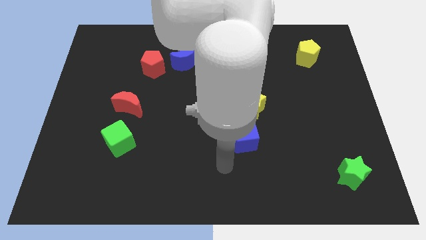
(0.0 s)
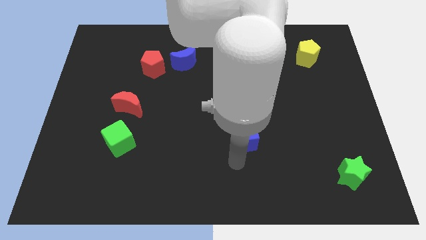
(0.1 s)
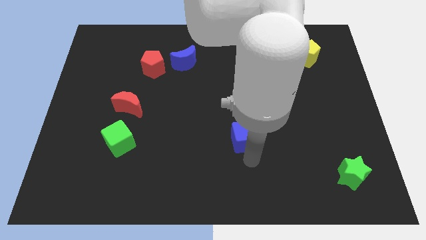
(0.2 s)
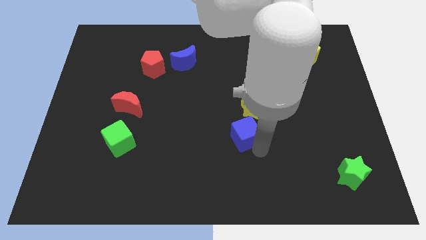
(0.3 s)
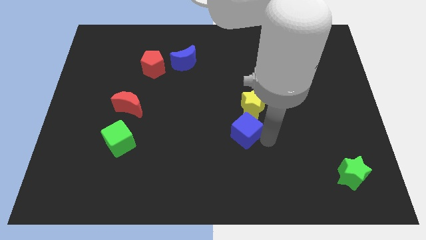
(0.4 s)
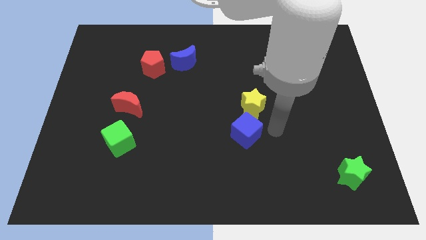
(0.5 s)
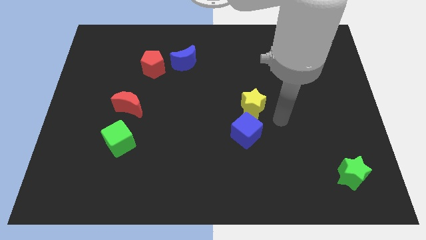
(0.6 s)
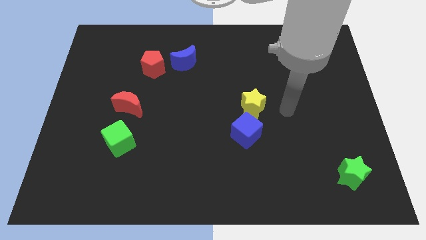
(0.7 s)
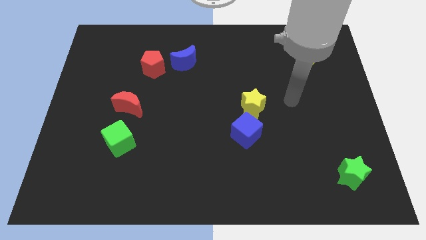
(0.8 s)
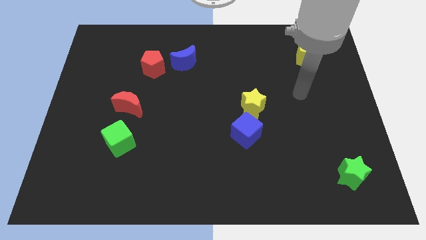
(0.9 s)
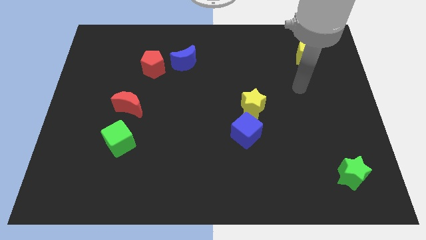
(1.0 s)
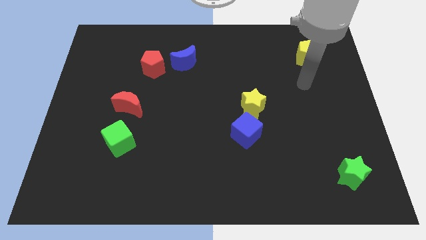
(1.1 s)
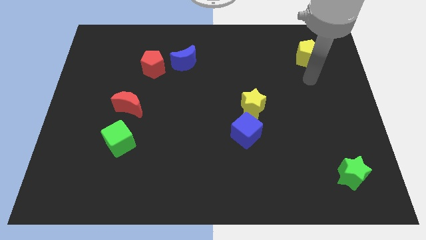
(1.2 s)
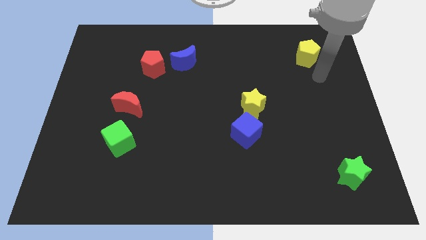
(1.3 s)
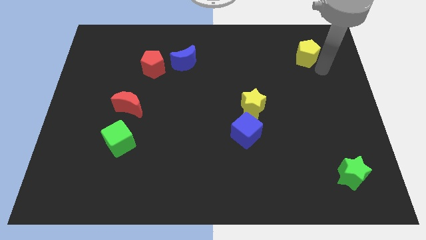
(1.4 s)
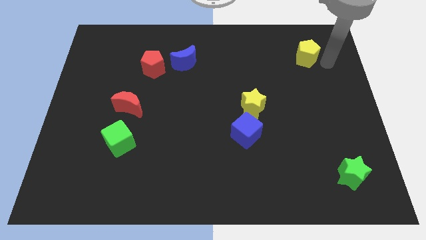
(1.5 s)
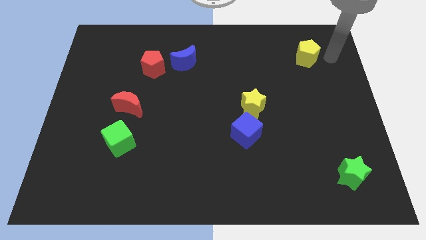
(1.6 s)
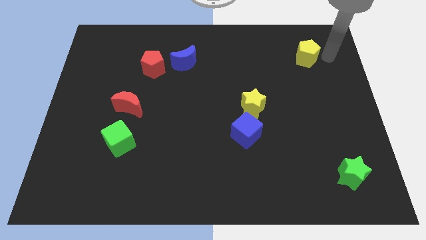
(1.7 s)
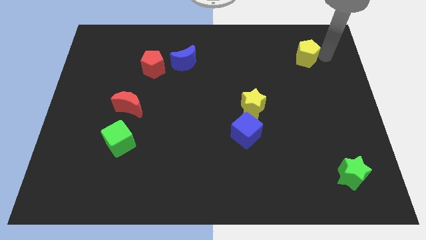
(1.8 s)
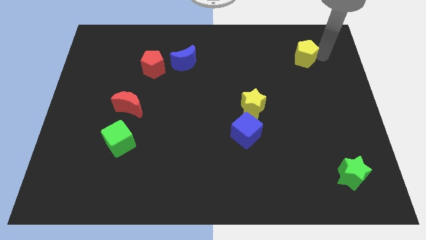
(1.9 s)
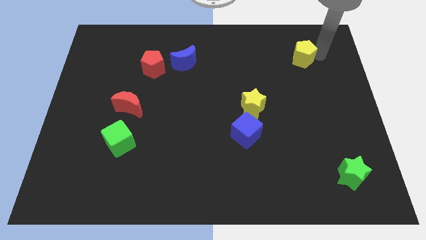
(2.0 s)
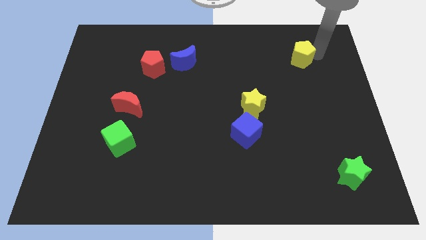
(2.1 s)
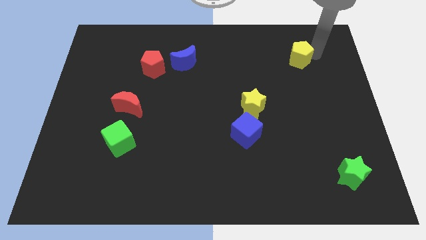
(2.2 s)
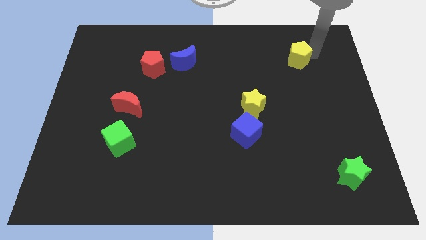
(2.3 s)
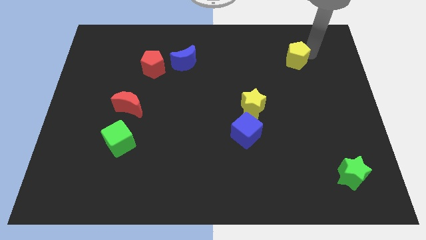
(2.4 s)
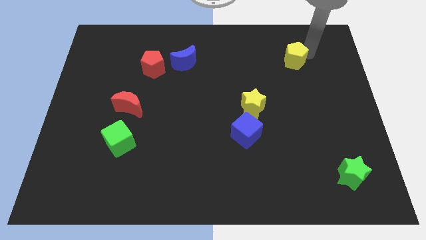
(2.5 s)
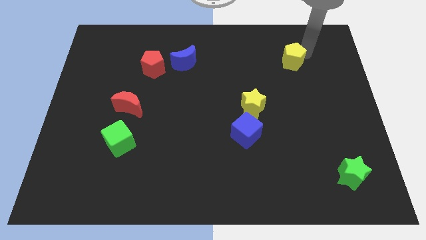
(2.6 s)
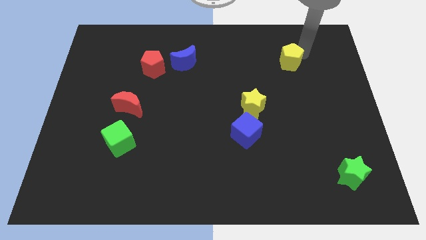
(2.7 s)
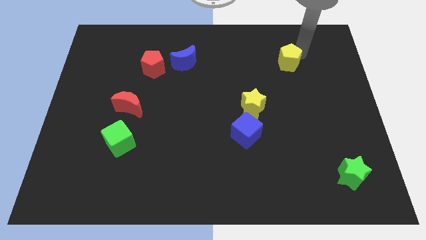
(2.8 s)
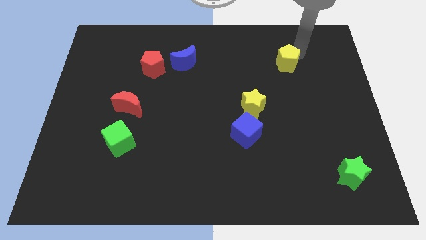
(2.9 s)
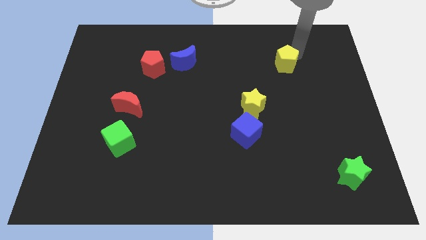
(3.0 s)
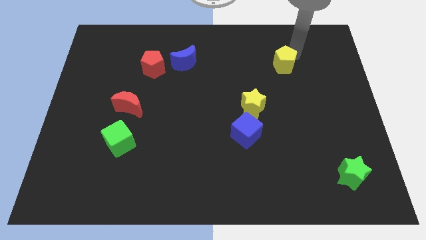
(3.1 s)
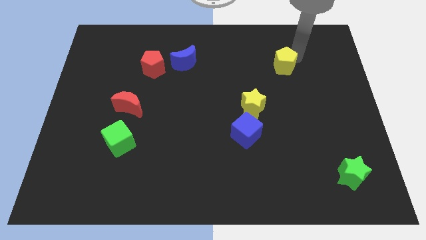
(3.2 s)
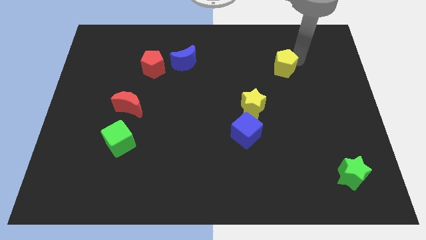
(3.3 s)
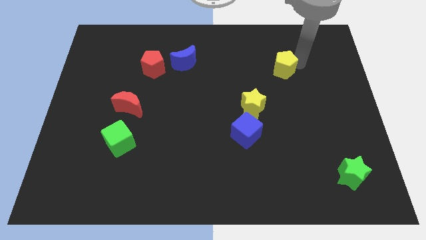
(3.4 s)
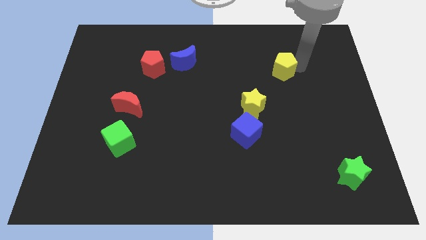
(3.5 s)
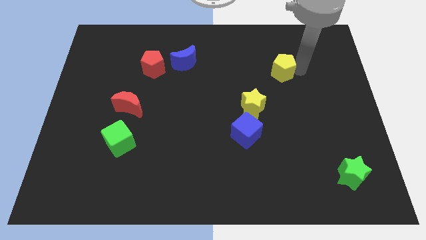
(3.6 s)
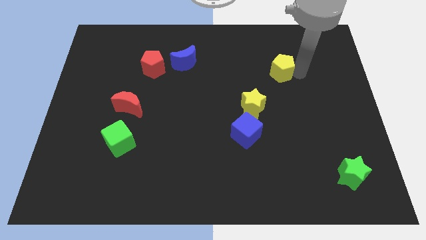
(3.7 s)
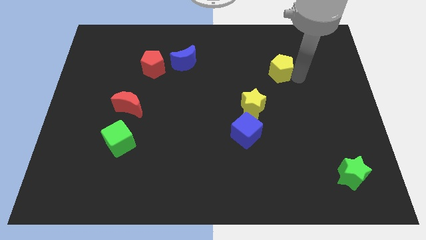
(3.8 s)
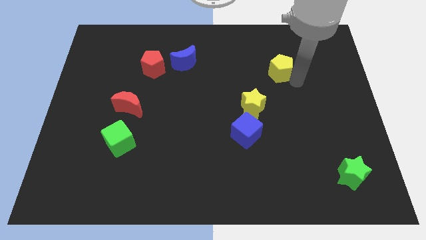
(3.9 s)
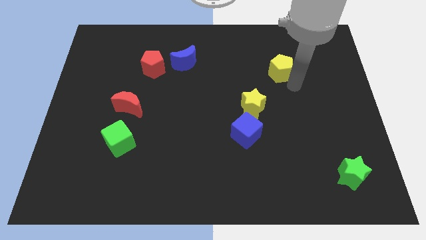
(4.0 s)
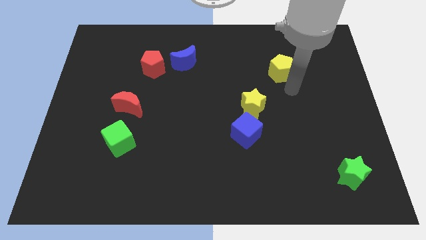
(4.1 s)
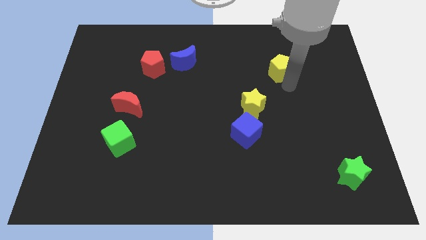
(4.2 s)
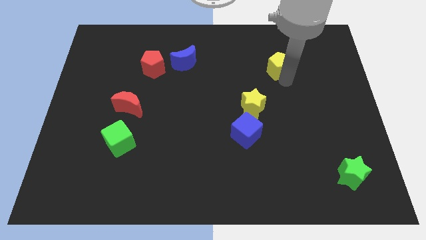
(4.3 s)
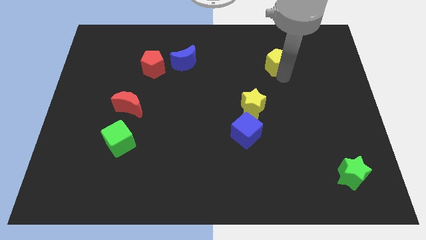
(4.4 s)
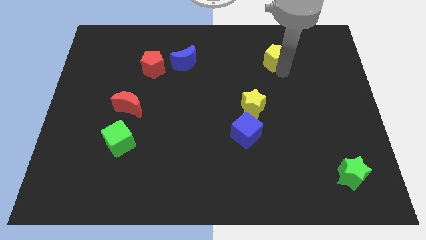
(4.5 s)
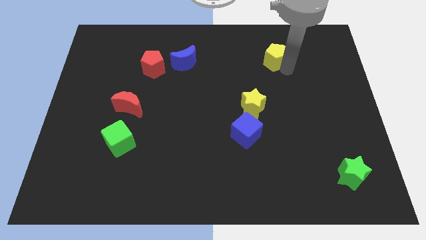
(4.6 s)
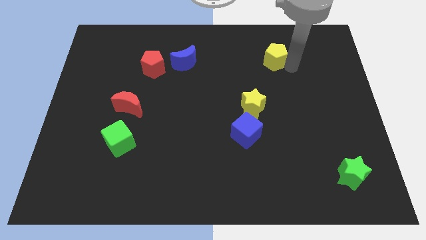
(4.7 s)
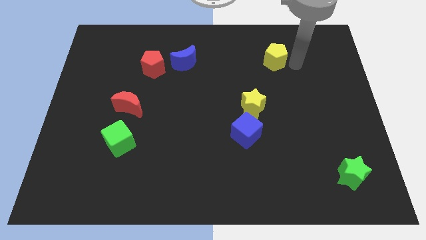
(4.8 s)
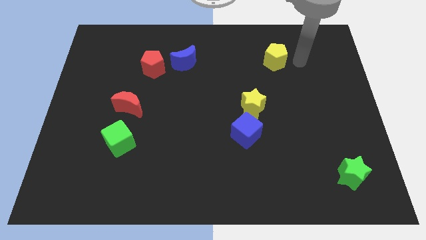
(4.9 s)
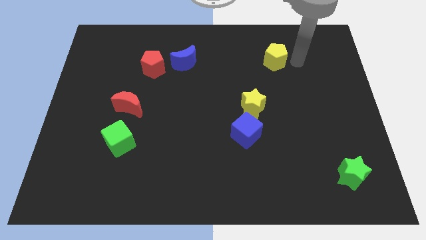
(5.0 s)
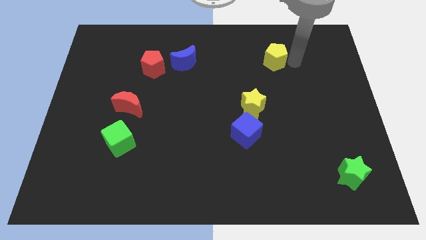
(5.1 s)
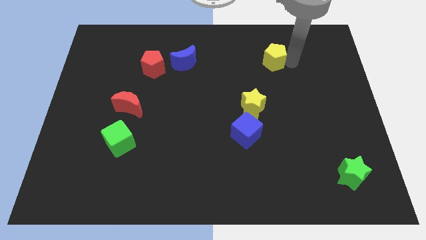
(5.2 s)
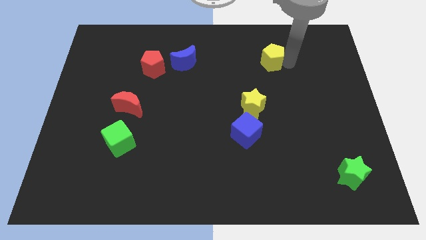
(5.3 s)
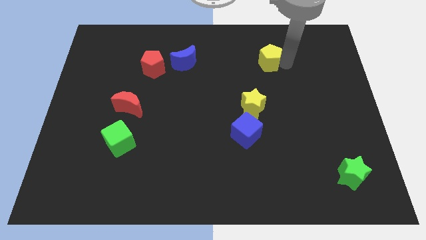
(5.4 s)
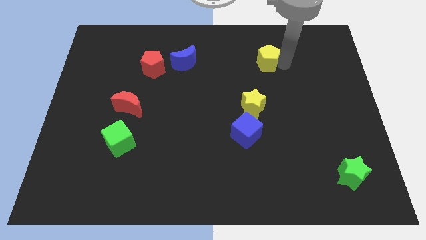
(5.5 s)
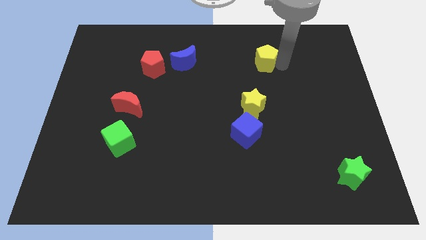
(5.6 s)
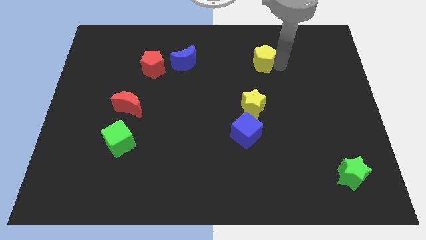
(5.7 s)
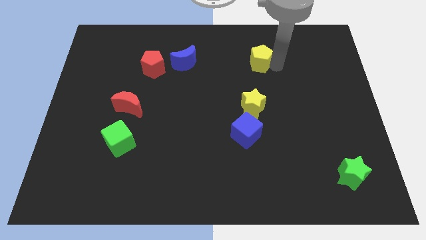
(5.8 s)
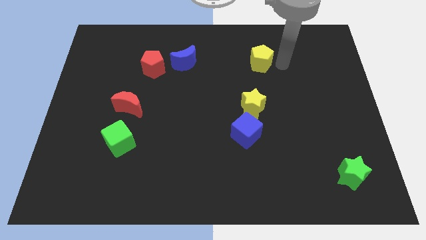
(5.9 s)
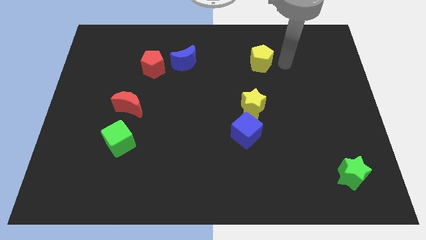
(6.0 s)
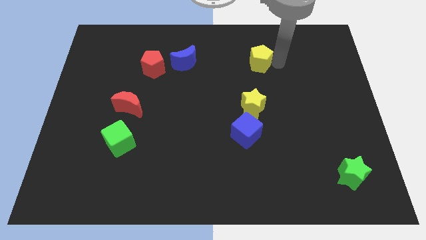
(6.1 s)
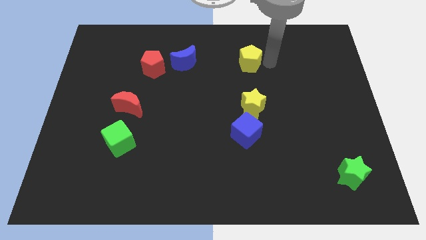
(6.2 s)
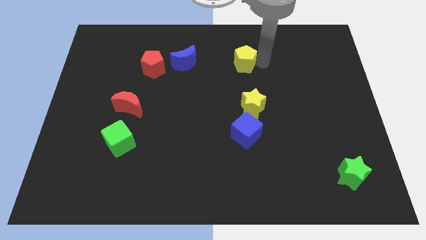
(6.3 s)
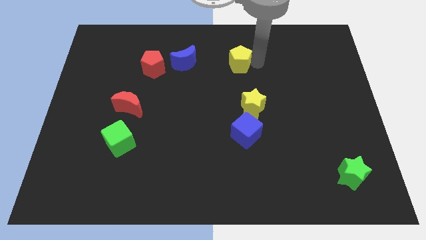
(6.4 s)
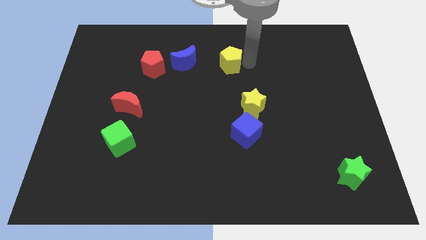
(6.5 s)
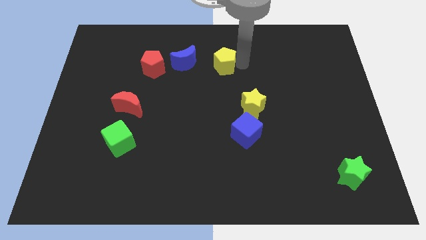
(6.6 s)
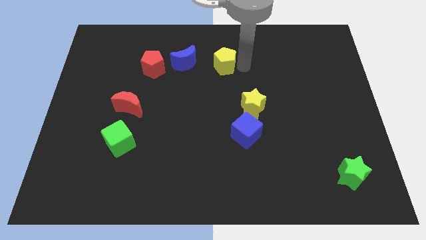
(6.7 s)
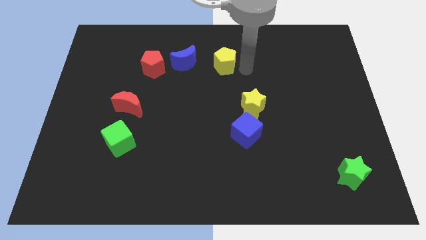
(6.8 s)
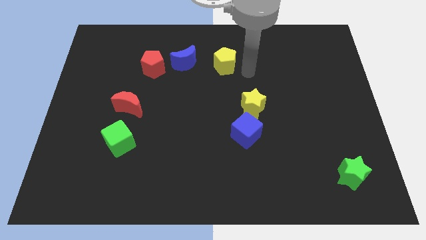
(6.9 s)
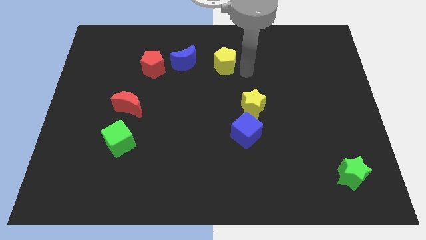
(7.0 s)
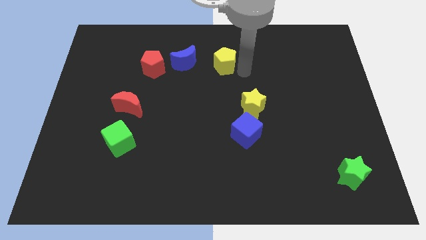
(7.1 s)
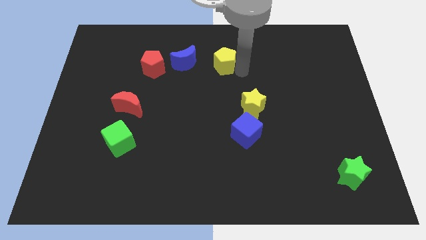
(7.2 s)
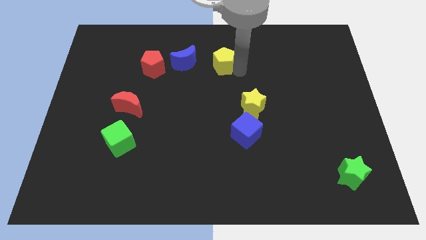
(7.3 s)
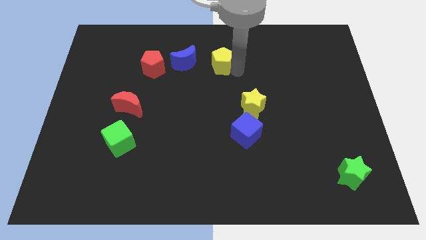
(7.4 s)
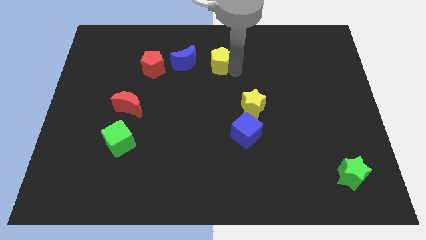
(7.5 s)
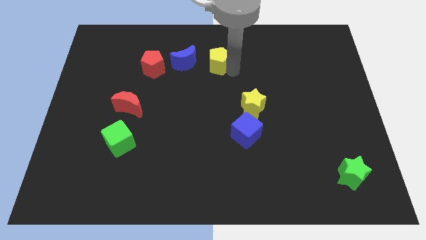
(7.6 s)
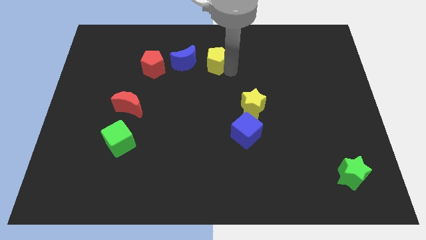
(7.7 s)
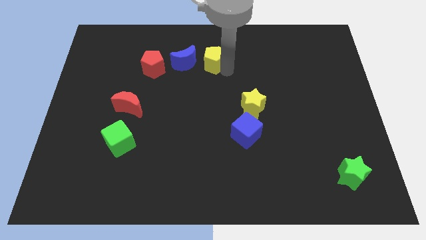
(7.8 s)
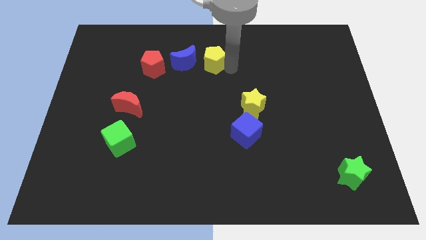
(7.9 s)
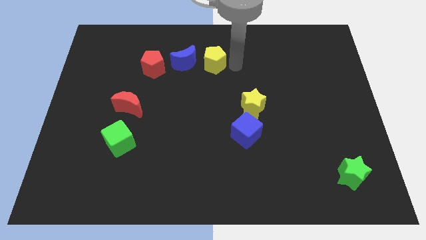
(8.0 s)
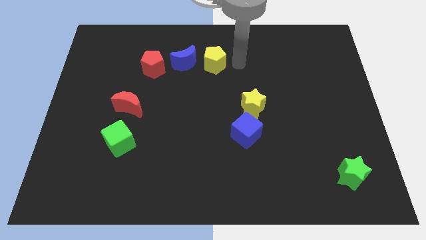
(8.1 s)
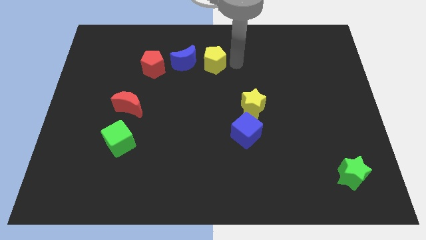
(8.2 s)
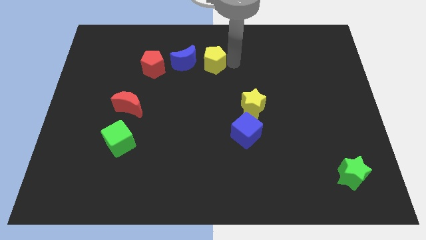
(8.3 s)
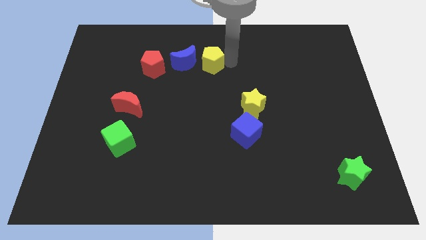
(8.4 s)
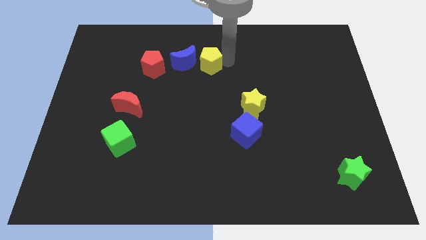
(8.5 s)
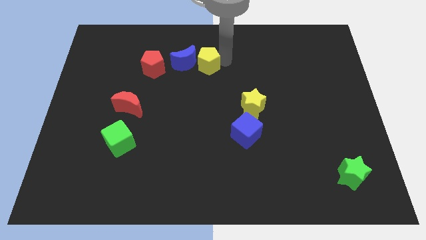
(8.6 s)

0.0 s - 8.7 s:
push the yellow pentagon to the blue moon
